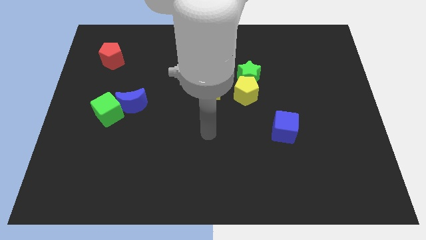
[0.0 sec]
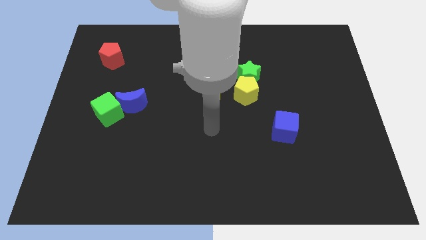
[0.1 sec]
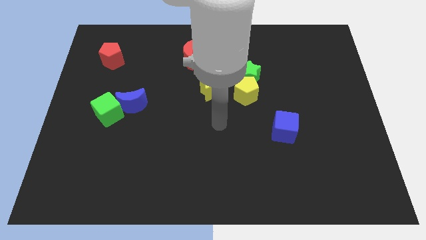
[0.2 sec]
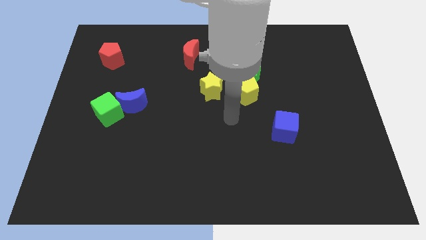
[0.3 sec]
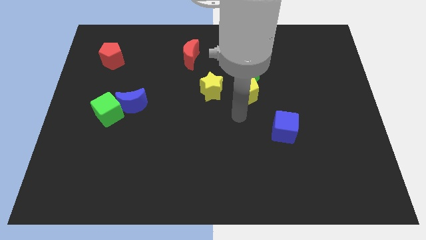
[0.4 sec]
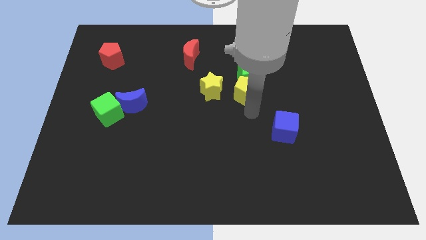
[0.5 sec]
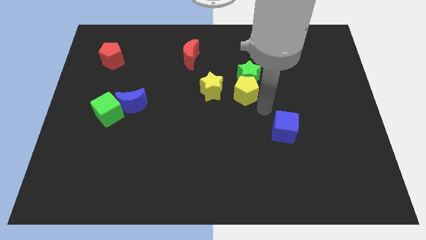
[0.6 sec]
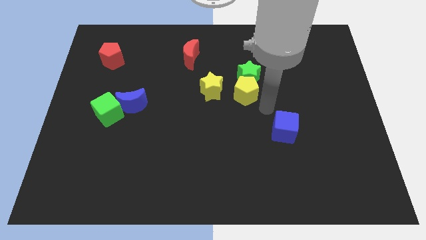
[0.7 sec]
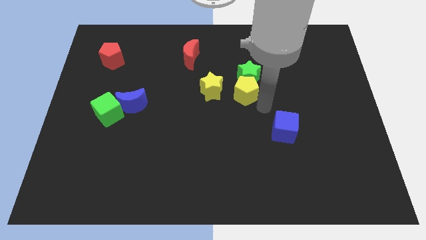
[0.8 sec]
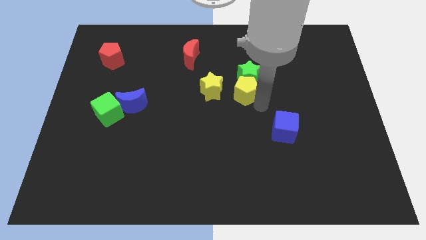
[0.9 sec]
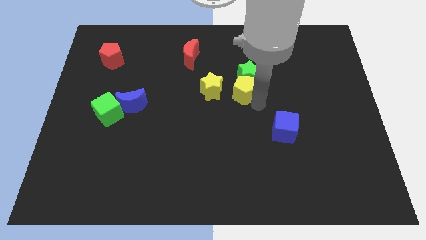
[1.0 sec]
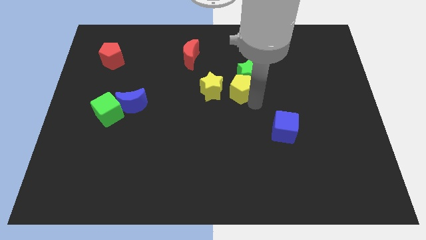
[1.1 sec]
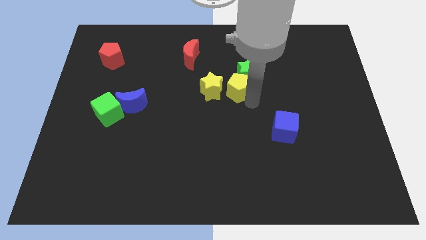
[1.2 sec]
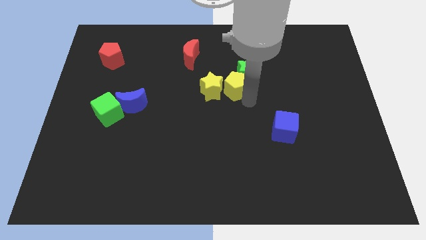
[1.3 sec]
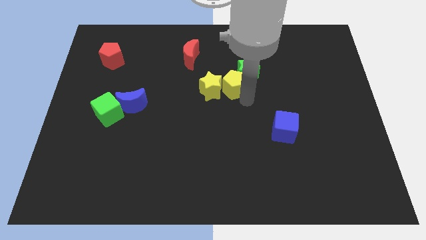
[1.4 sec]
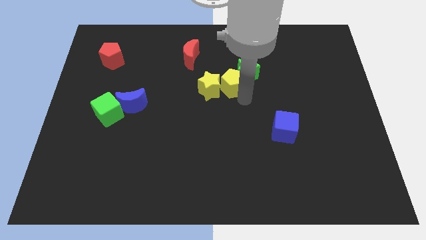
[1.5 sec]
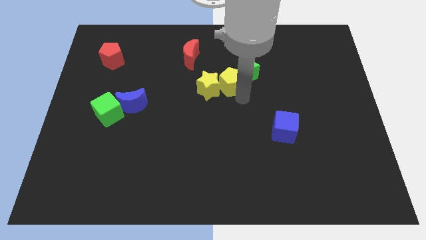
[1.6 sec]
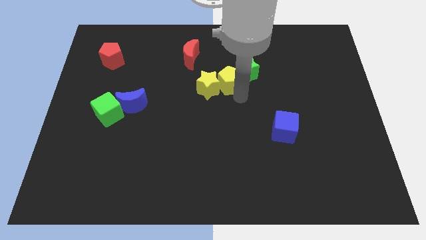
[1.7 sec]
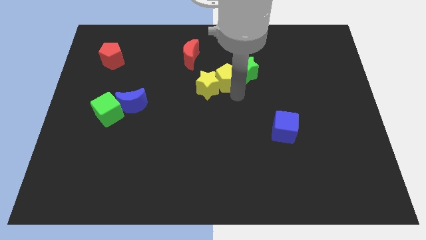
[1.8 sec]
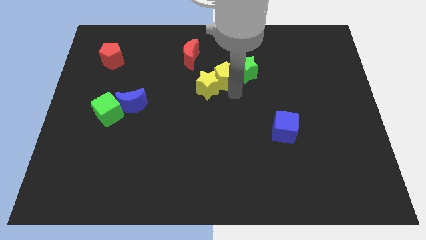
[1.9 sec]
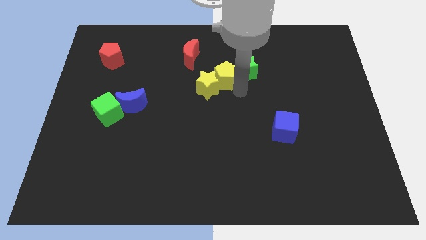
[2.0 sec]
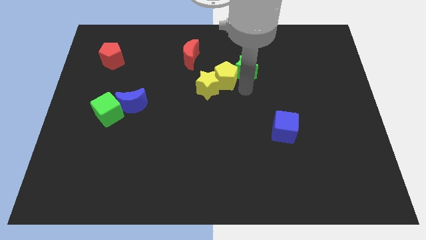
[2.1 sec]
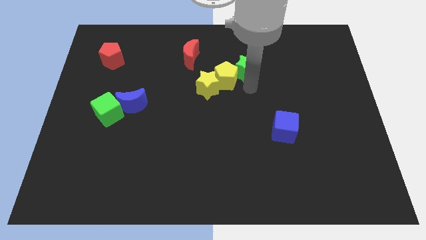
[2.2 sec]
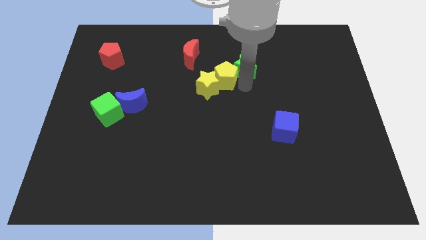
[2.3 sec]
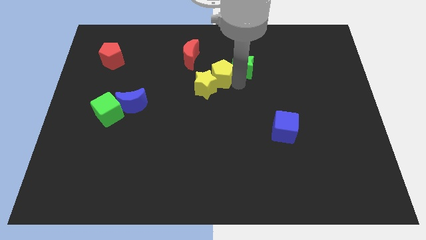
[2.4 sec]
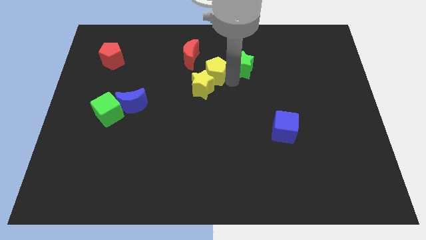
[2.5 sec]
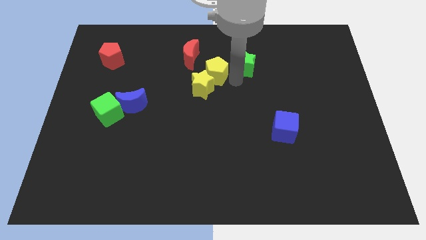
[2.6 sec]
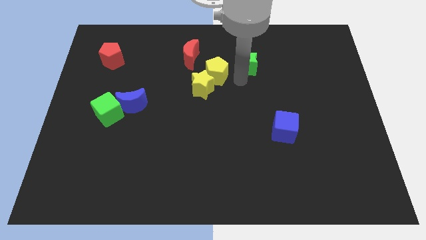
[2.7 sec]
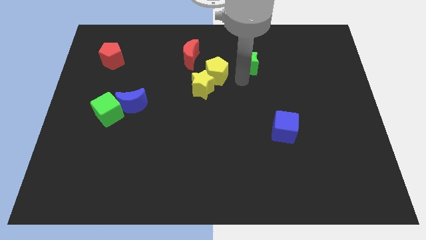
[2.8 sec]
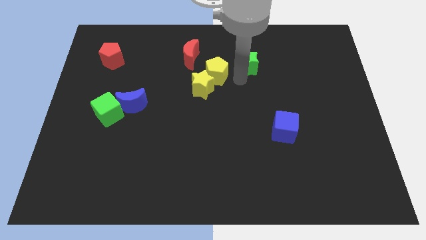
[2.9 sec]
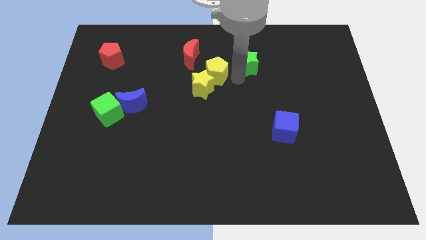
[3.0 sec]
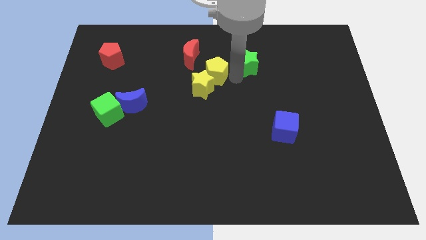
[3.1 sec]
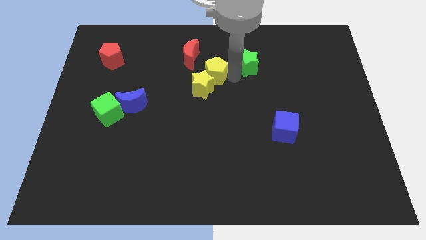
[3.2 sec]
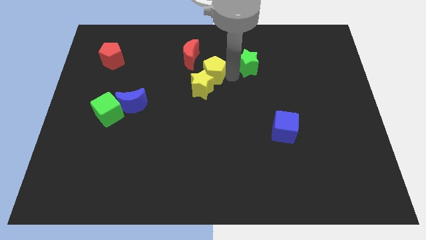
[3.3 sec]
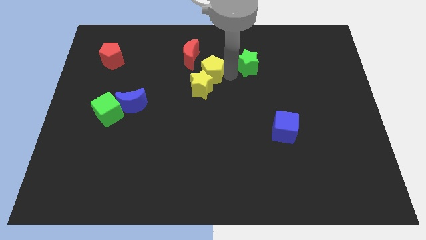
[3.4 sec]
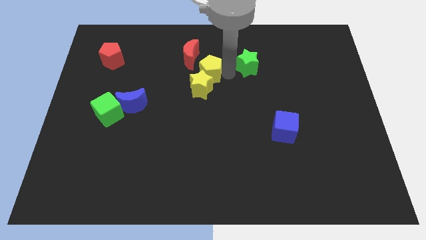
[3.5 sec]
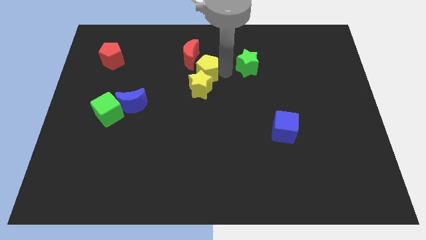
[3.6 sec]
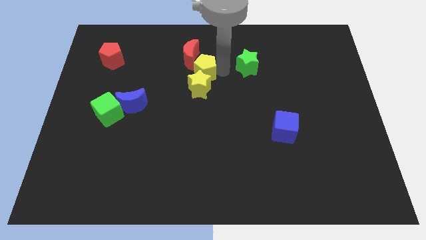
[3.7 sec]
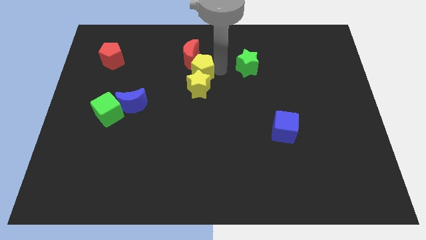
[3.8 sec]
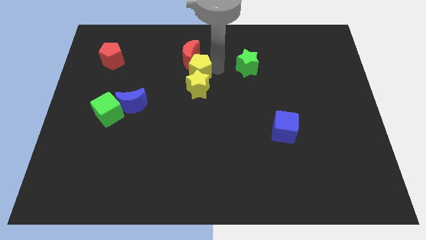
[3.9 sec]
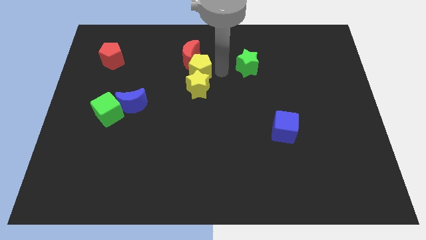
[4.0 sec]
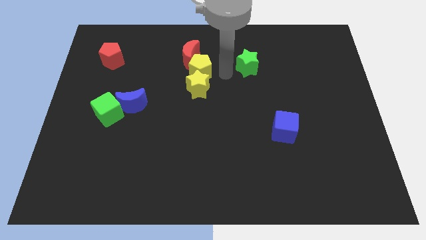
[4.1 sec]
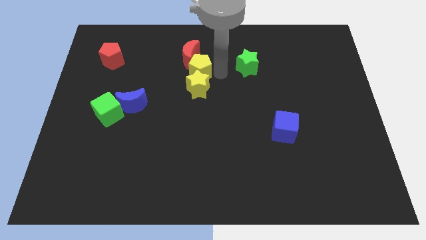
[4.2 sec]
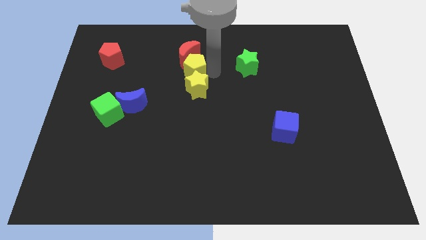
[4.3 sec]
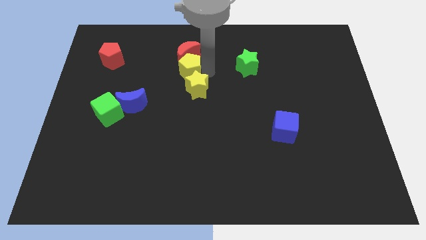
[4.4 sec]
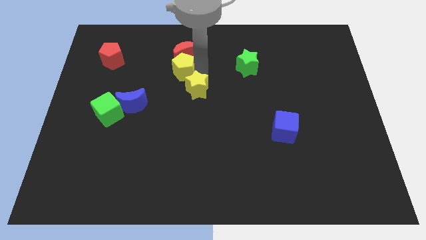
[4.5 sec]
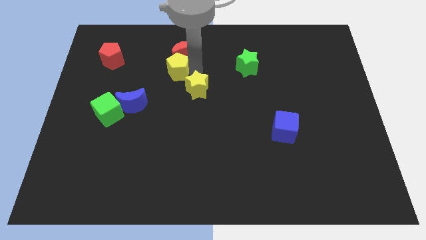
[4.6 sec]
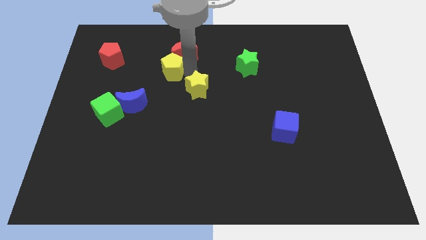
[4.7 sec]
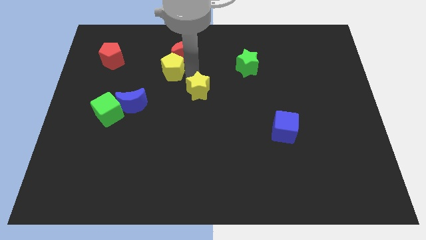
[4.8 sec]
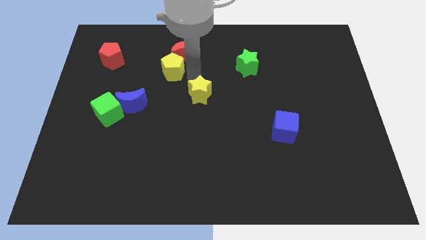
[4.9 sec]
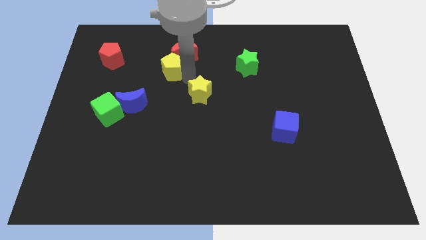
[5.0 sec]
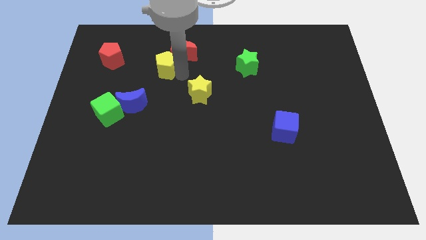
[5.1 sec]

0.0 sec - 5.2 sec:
put the yellow pentagon to the left of the red moon
